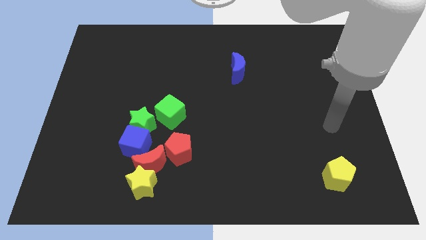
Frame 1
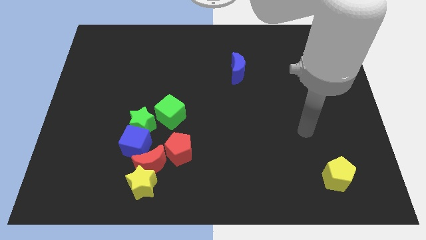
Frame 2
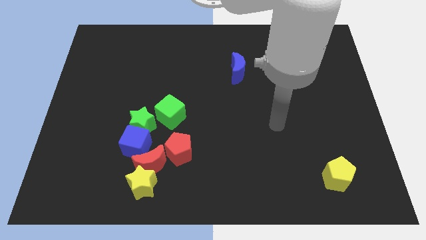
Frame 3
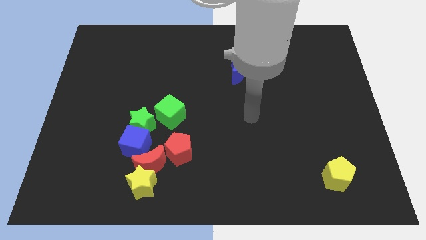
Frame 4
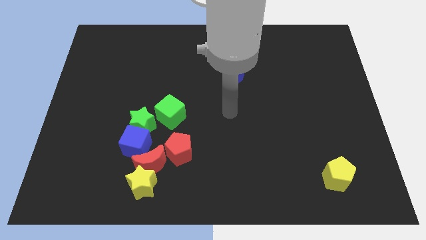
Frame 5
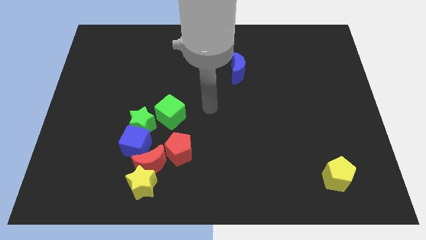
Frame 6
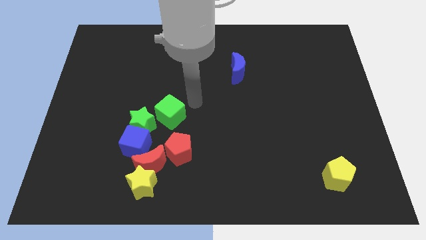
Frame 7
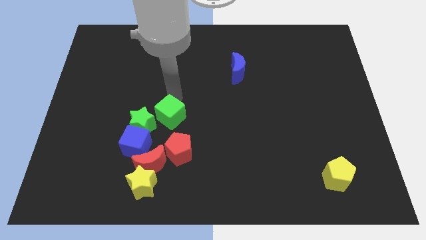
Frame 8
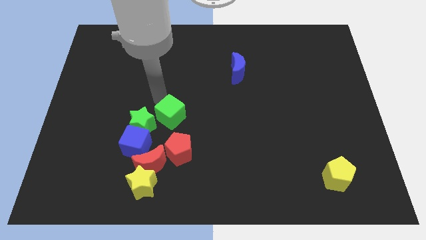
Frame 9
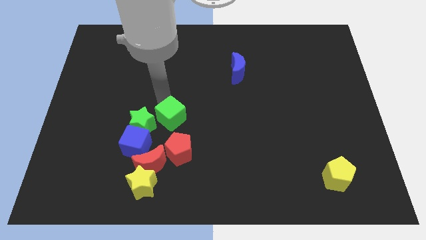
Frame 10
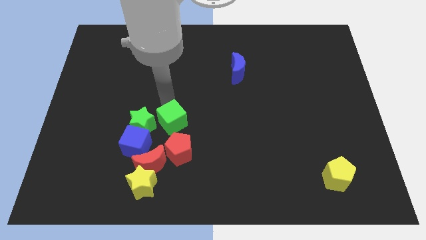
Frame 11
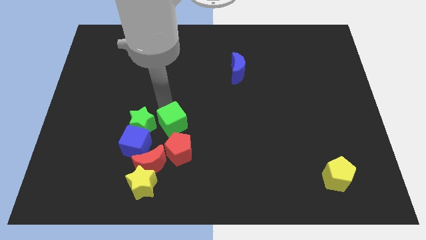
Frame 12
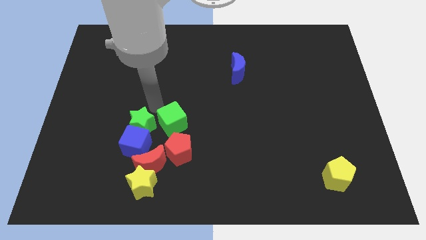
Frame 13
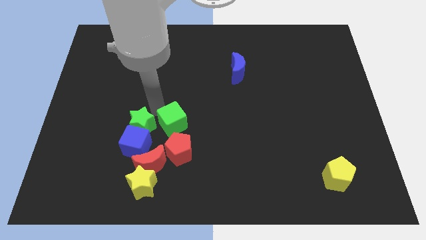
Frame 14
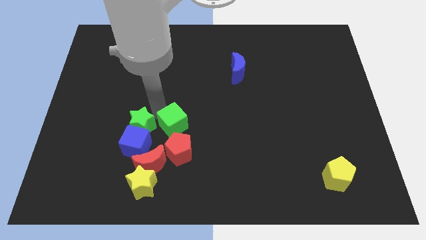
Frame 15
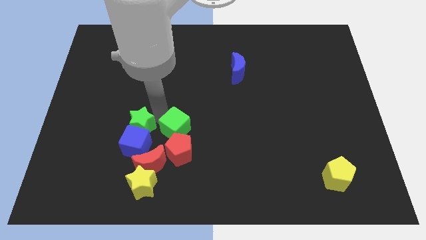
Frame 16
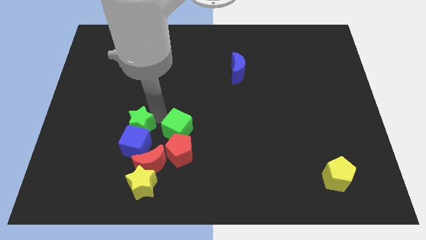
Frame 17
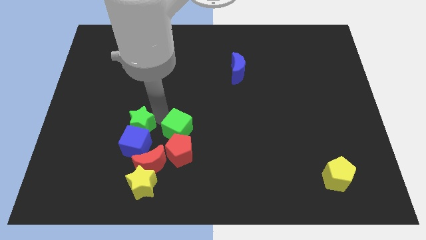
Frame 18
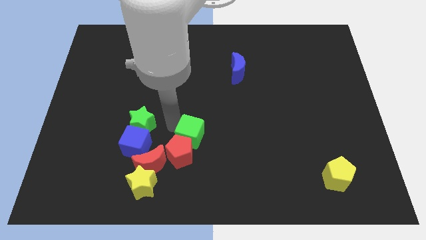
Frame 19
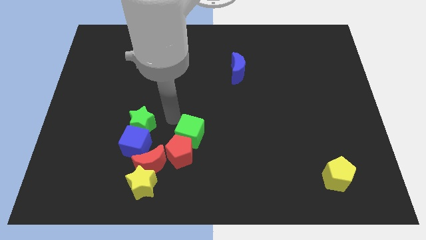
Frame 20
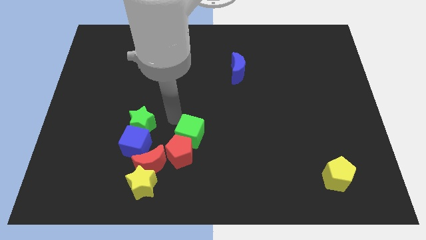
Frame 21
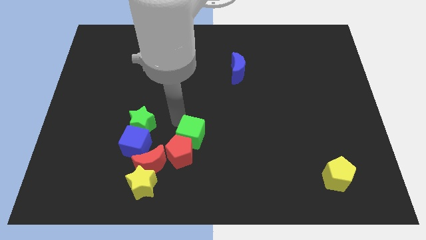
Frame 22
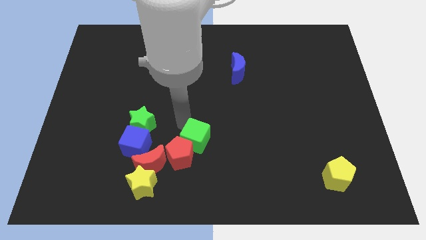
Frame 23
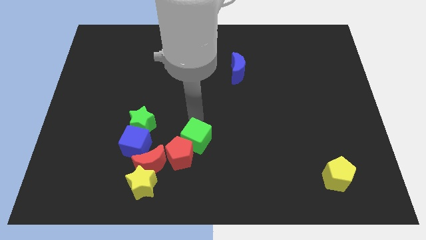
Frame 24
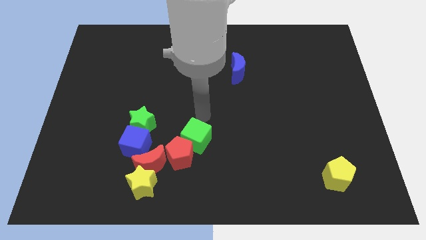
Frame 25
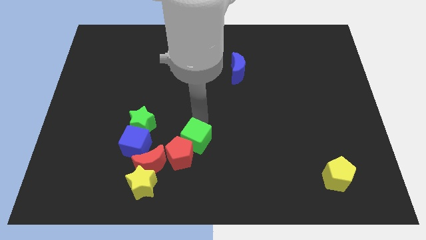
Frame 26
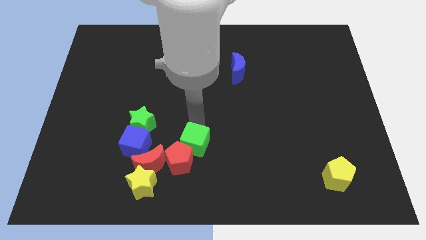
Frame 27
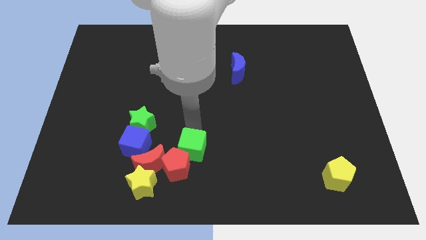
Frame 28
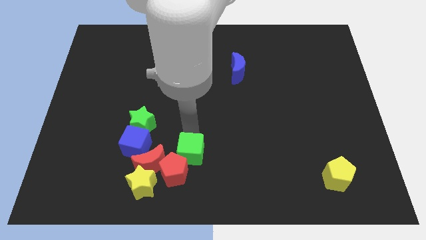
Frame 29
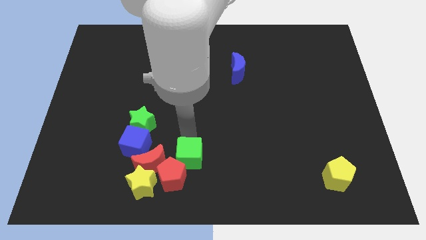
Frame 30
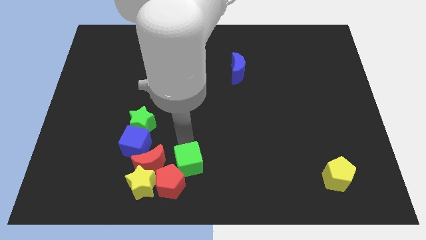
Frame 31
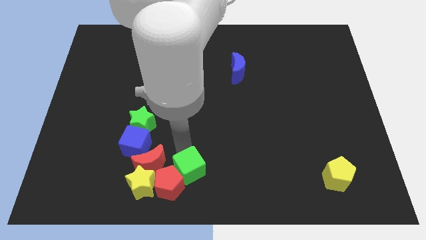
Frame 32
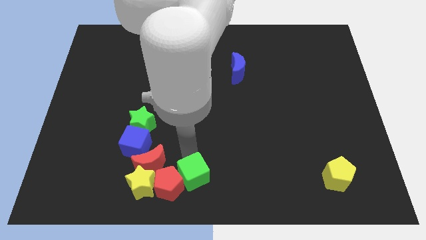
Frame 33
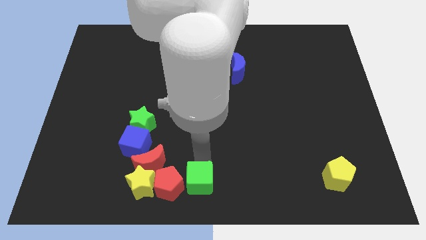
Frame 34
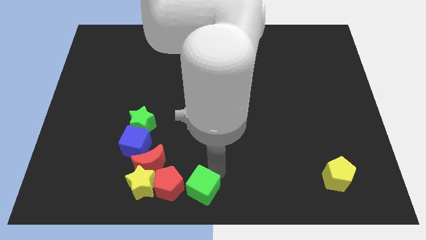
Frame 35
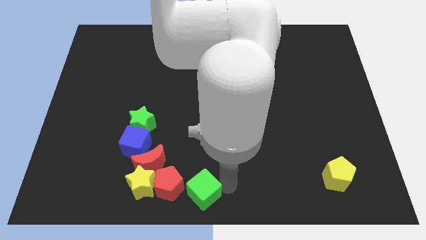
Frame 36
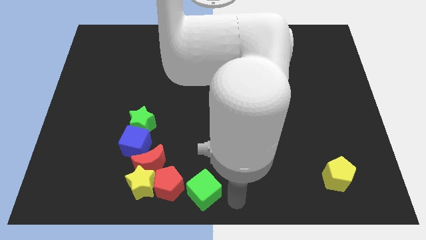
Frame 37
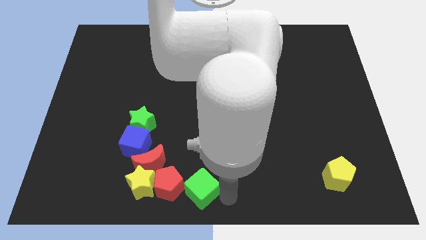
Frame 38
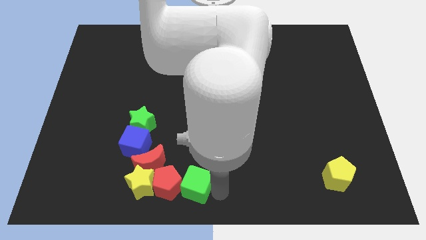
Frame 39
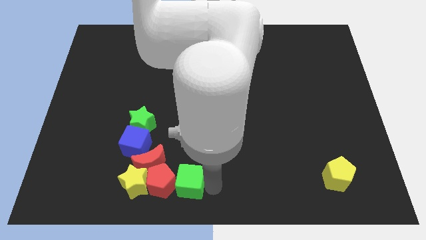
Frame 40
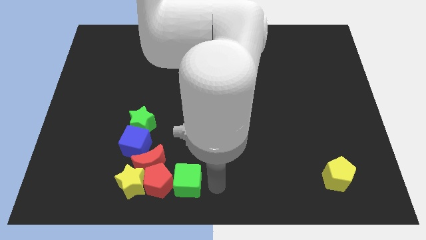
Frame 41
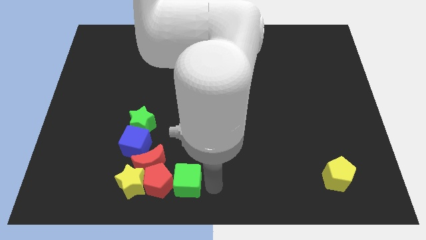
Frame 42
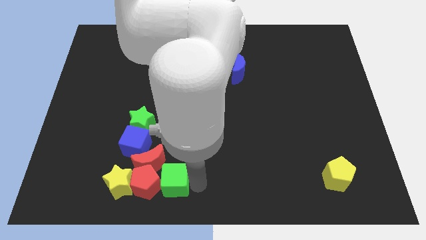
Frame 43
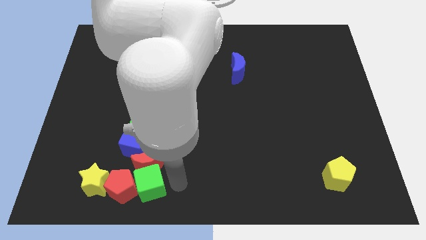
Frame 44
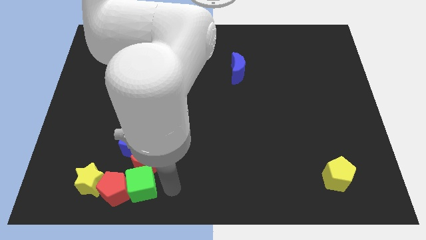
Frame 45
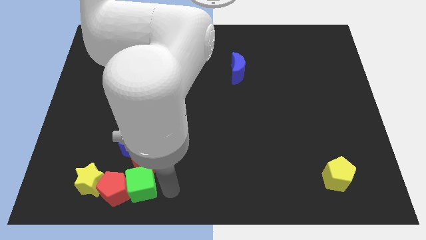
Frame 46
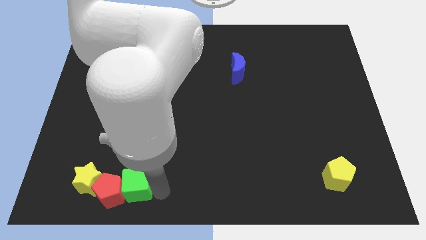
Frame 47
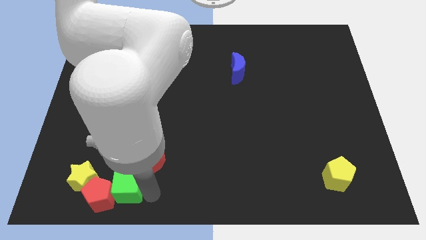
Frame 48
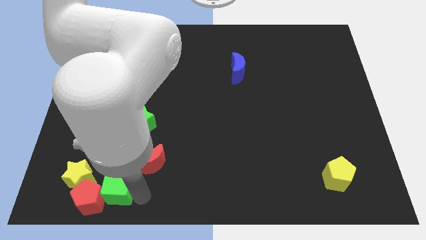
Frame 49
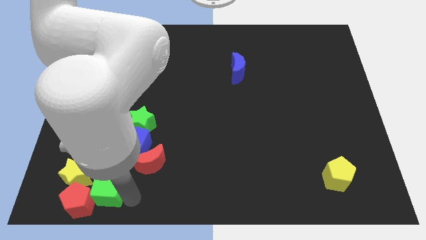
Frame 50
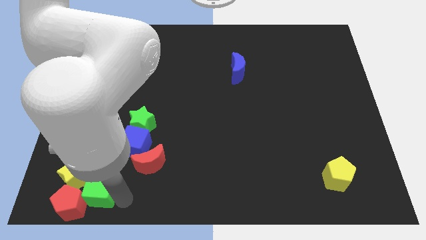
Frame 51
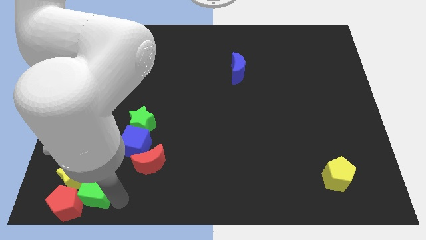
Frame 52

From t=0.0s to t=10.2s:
move the green cube to the yellow star
